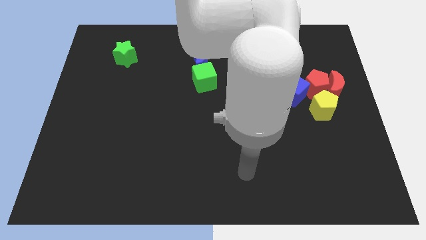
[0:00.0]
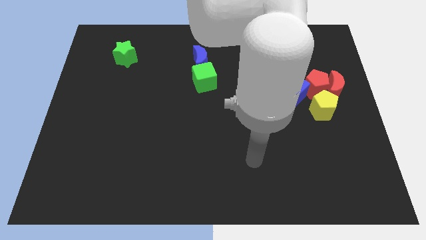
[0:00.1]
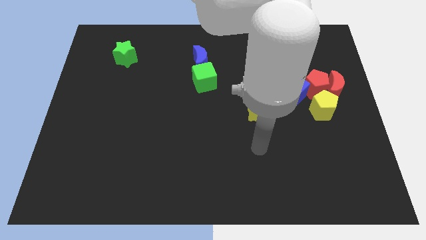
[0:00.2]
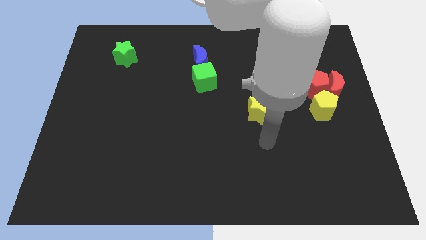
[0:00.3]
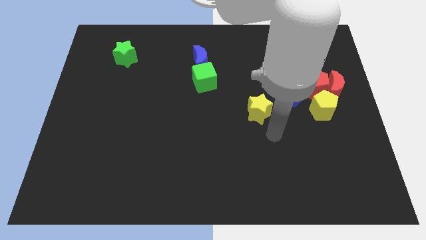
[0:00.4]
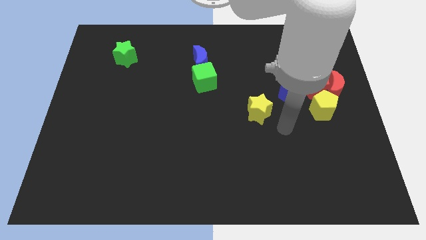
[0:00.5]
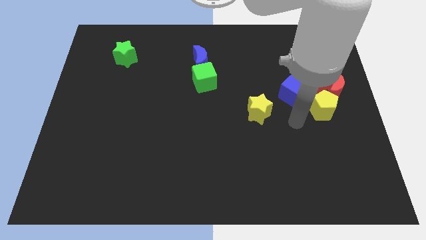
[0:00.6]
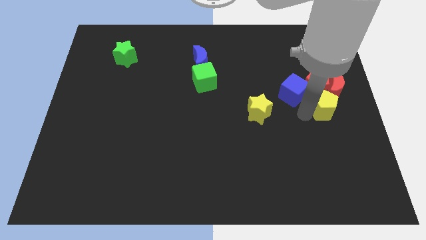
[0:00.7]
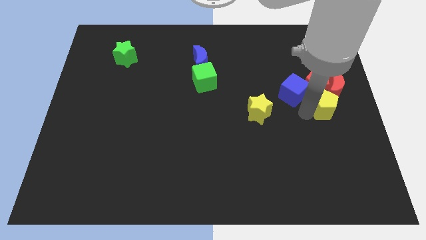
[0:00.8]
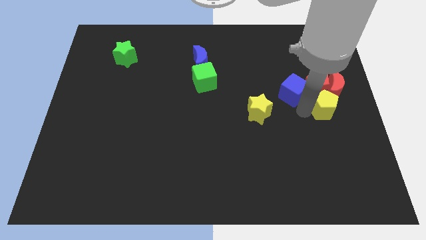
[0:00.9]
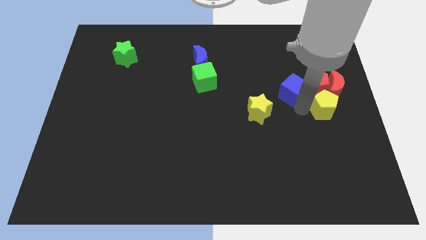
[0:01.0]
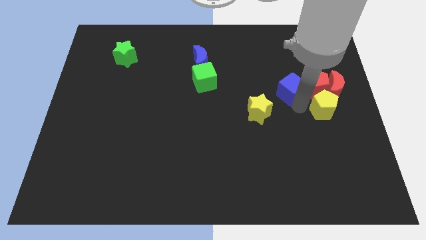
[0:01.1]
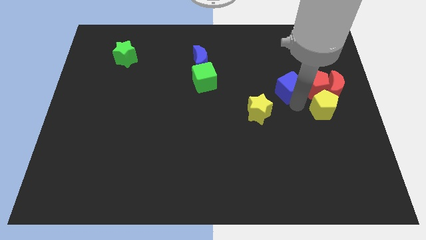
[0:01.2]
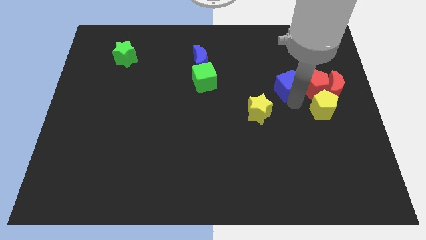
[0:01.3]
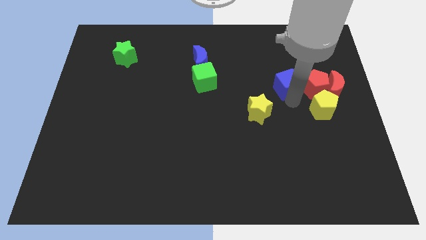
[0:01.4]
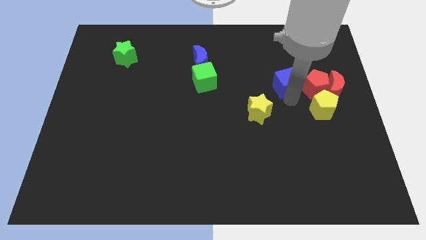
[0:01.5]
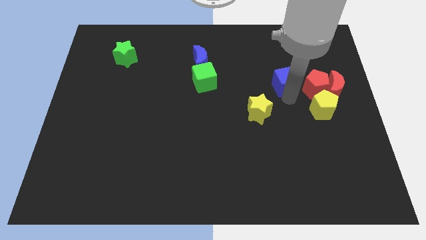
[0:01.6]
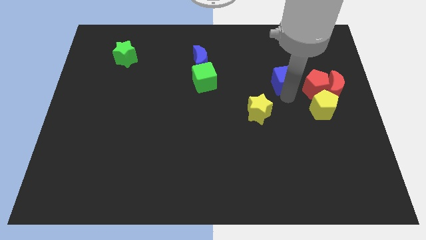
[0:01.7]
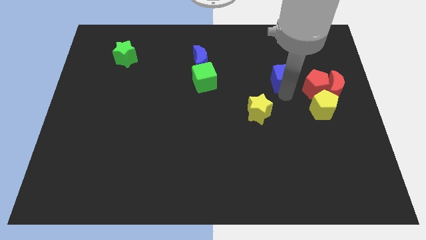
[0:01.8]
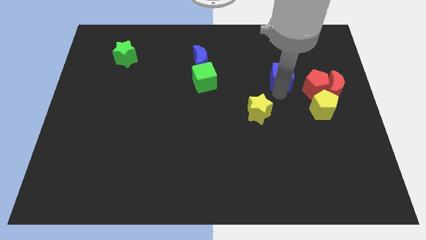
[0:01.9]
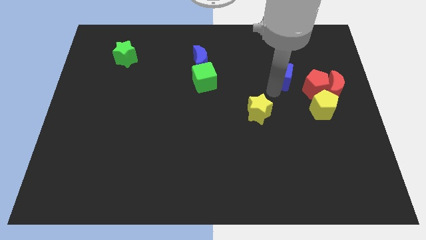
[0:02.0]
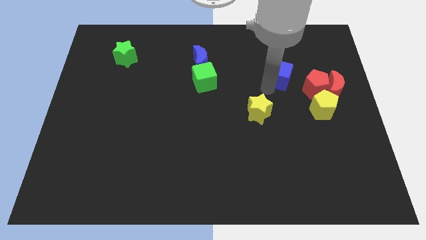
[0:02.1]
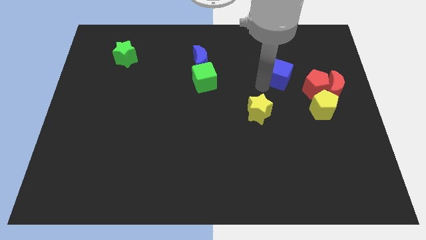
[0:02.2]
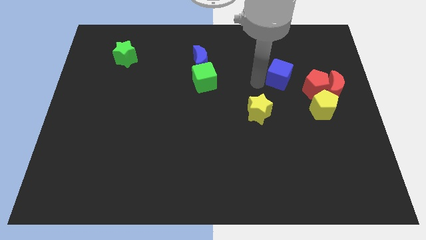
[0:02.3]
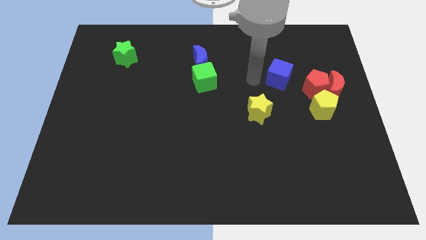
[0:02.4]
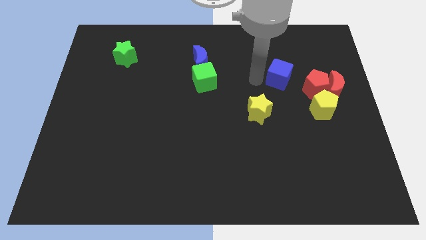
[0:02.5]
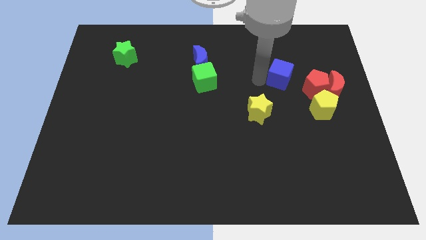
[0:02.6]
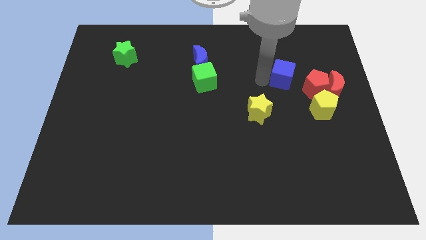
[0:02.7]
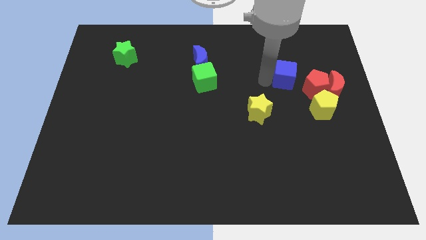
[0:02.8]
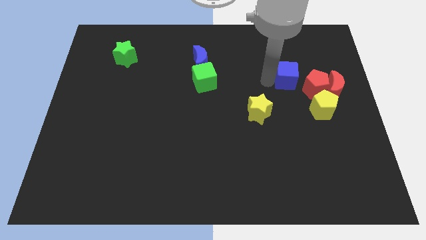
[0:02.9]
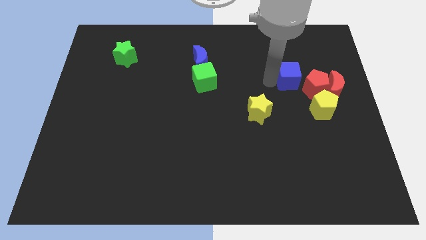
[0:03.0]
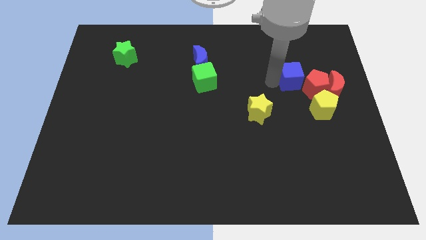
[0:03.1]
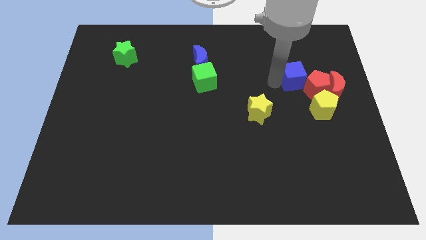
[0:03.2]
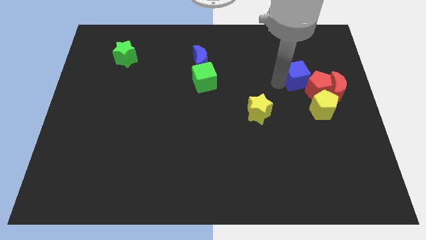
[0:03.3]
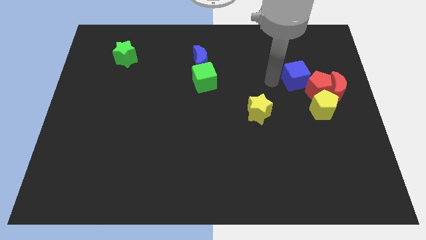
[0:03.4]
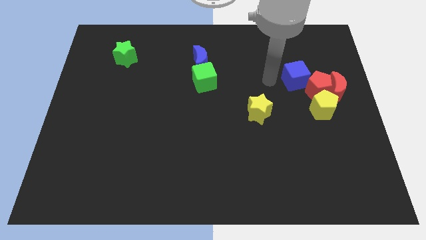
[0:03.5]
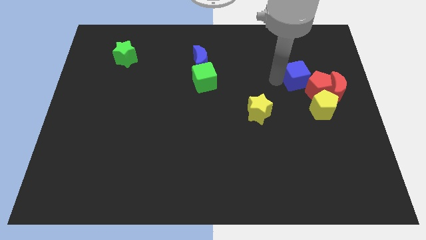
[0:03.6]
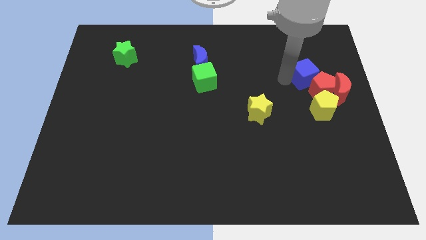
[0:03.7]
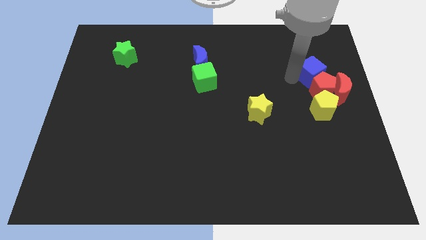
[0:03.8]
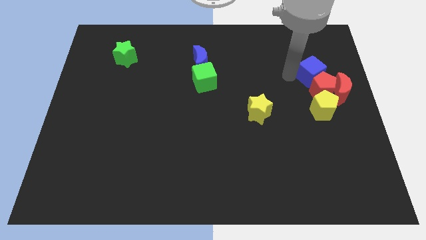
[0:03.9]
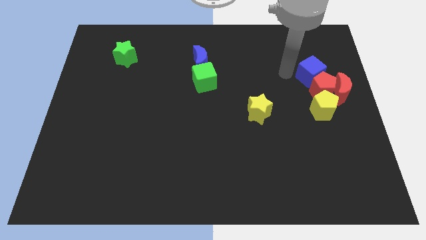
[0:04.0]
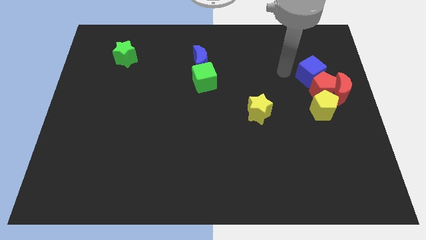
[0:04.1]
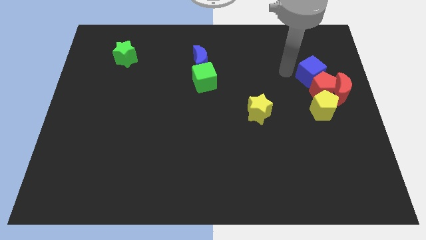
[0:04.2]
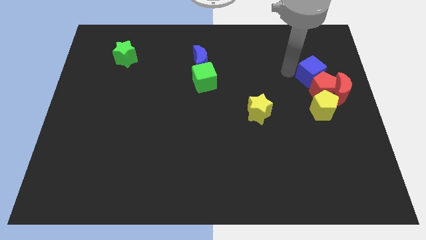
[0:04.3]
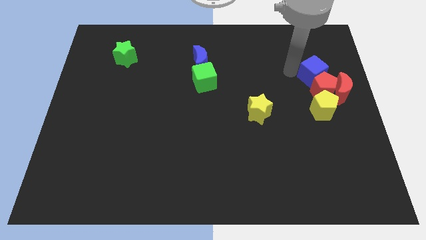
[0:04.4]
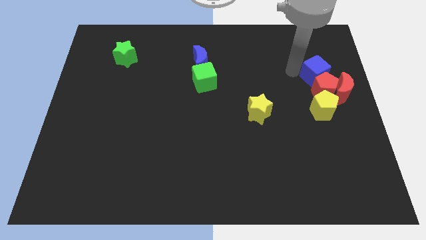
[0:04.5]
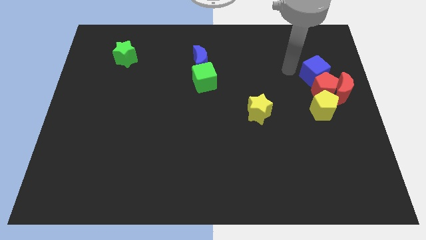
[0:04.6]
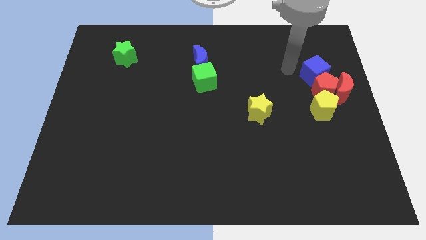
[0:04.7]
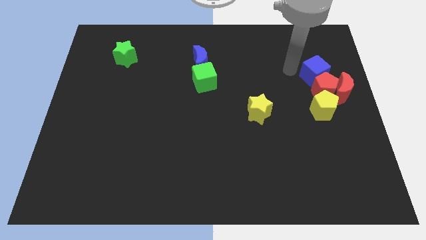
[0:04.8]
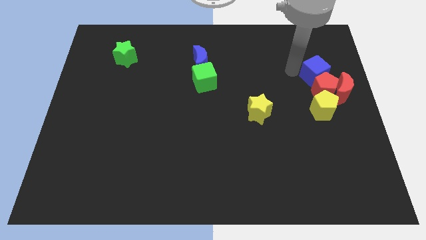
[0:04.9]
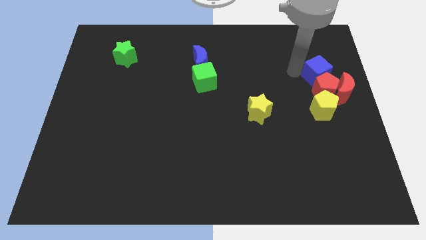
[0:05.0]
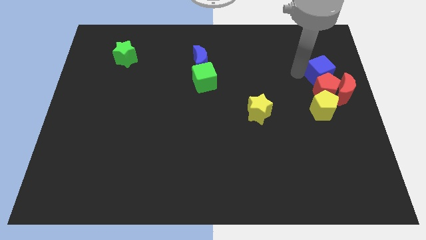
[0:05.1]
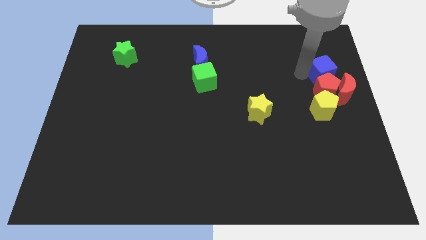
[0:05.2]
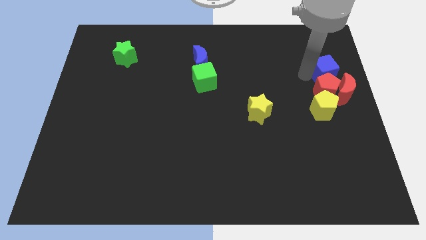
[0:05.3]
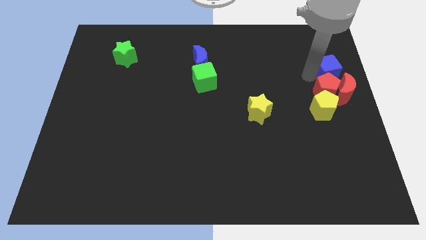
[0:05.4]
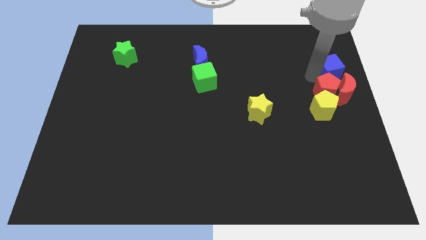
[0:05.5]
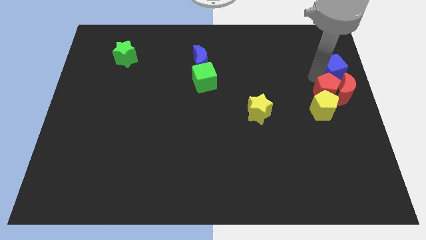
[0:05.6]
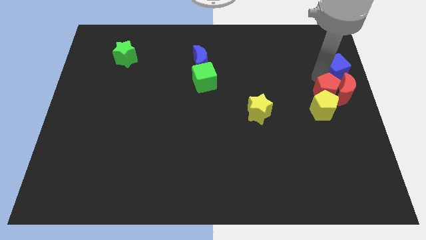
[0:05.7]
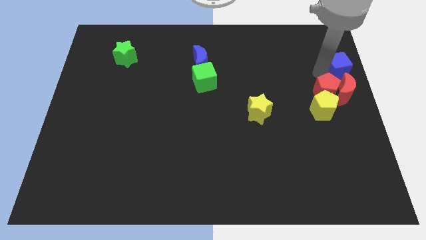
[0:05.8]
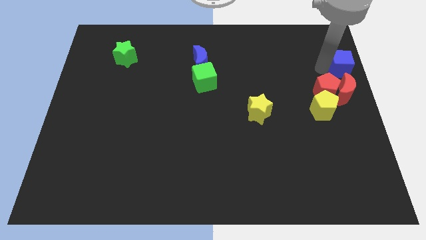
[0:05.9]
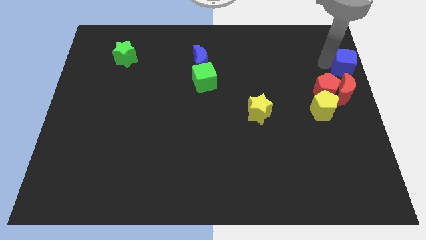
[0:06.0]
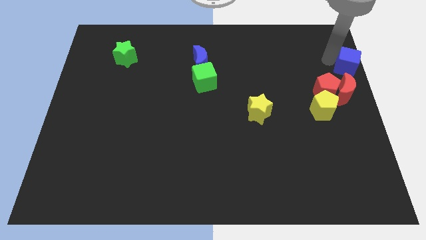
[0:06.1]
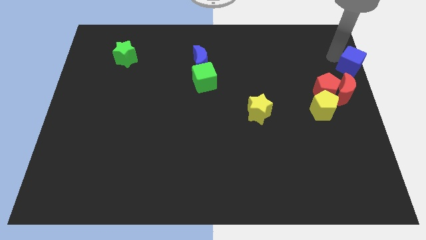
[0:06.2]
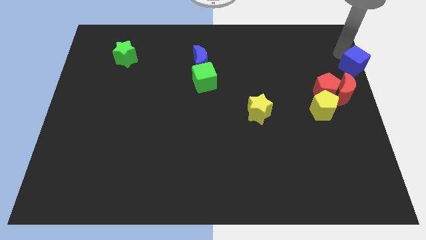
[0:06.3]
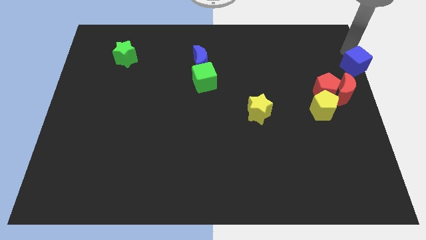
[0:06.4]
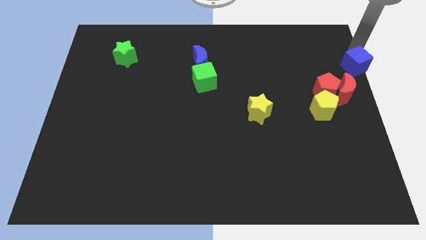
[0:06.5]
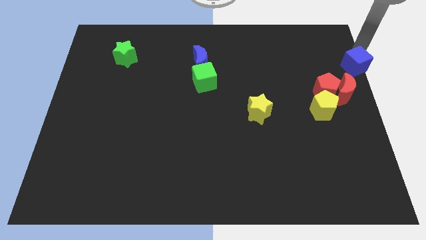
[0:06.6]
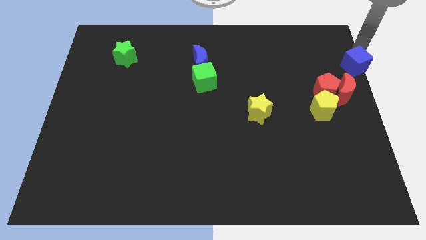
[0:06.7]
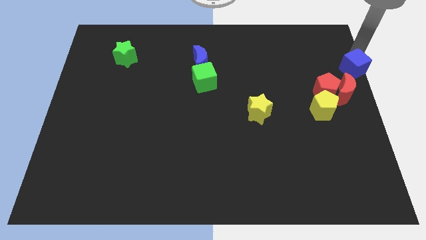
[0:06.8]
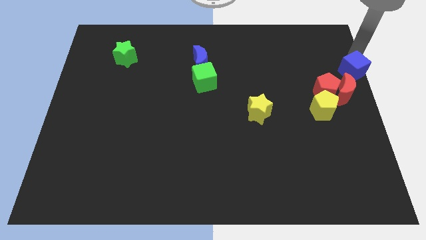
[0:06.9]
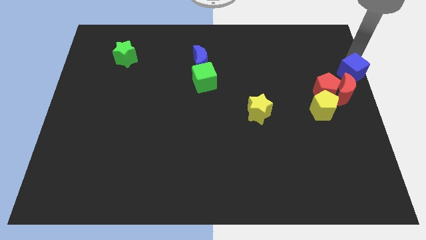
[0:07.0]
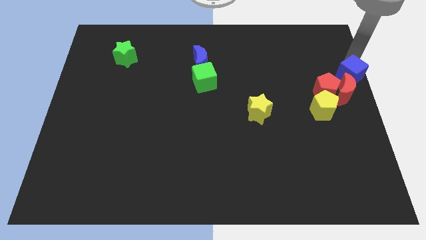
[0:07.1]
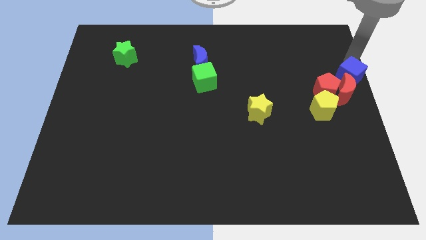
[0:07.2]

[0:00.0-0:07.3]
move the blue cube close to the red moon
